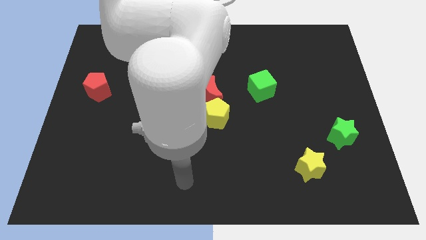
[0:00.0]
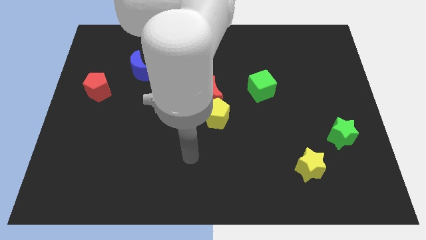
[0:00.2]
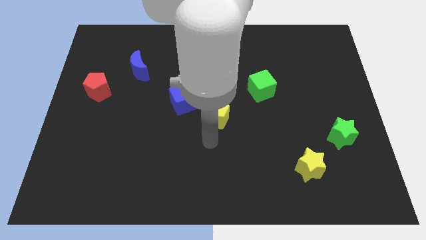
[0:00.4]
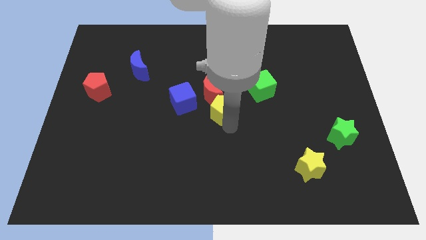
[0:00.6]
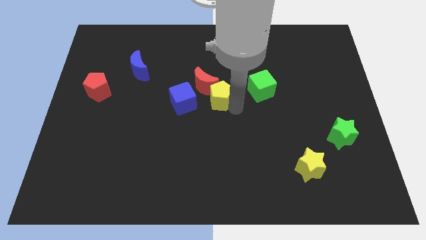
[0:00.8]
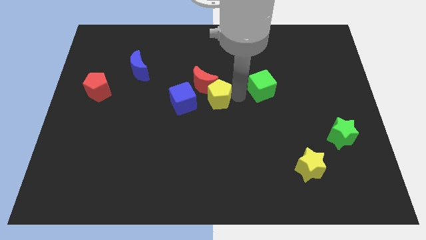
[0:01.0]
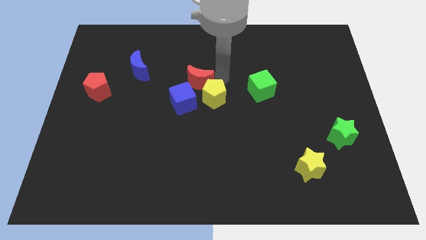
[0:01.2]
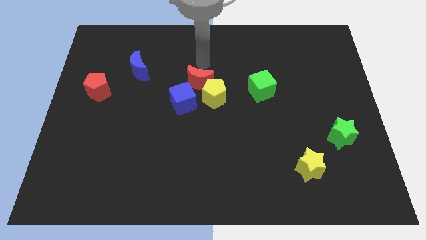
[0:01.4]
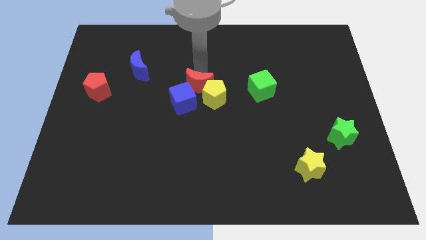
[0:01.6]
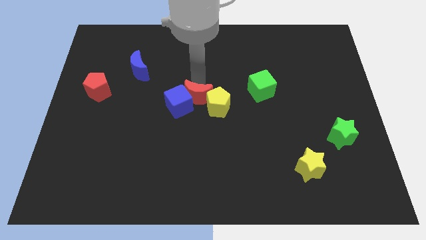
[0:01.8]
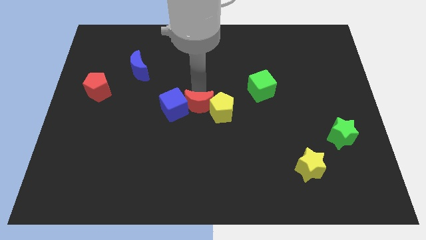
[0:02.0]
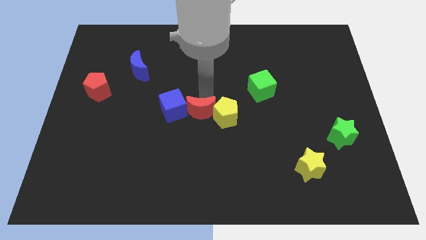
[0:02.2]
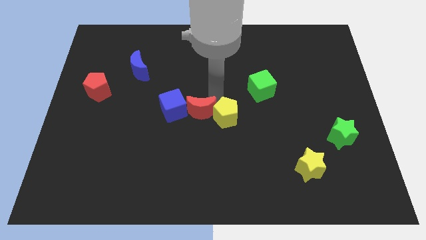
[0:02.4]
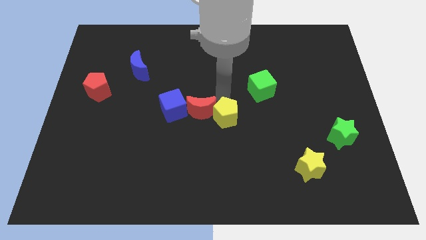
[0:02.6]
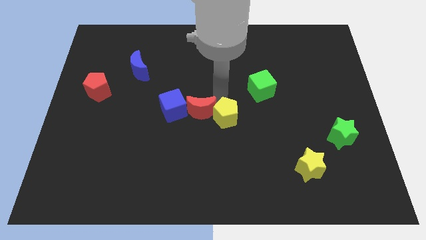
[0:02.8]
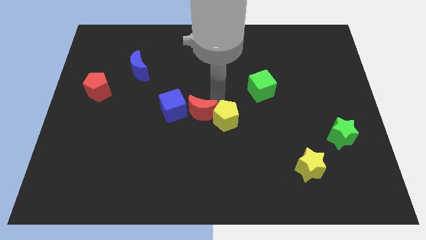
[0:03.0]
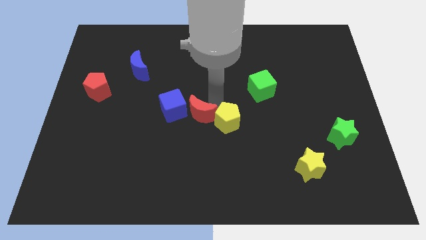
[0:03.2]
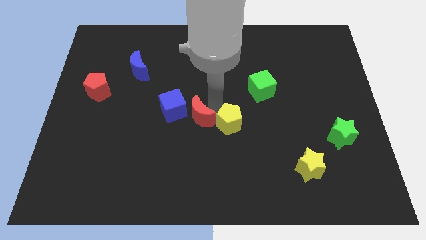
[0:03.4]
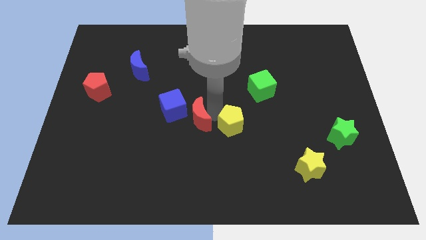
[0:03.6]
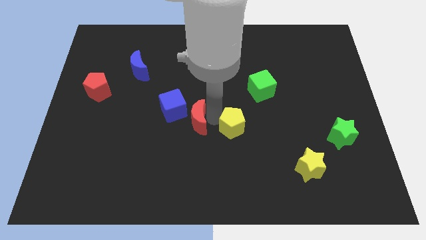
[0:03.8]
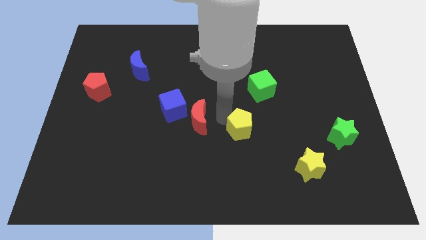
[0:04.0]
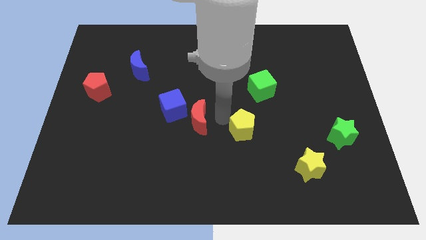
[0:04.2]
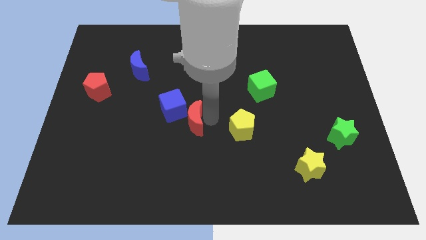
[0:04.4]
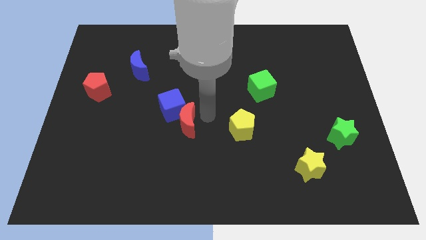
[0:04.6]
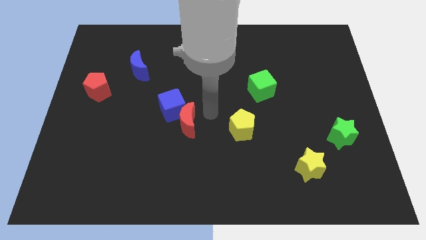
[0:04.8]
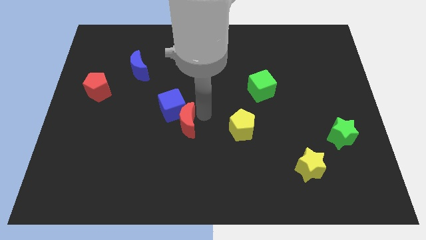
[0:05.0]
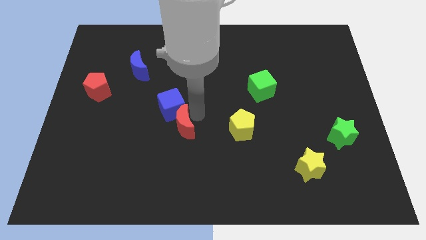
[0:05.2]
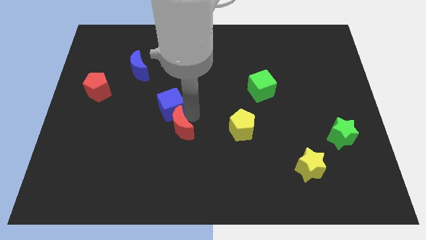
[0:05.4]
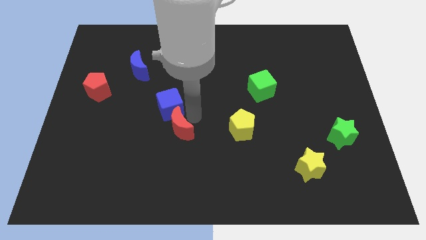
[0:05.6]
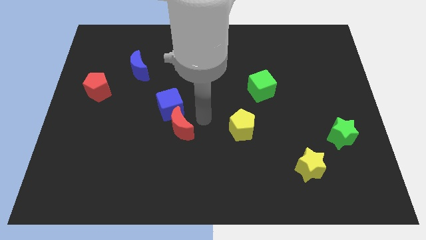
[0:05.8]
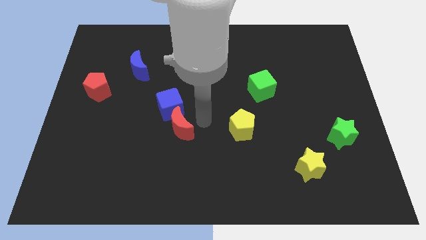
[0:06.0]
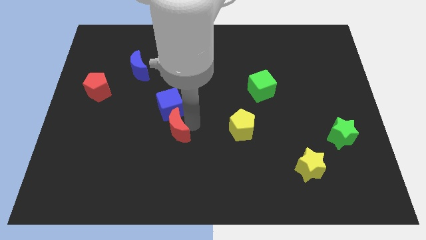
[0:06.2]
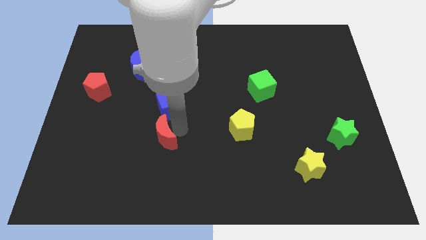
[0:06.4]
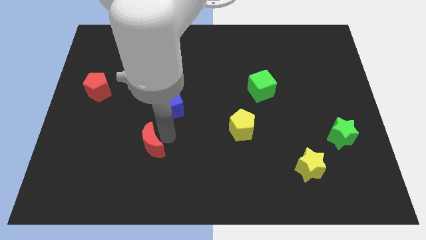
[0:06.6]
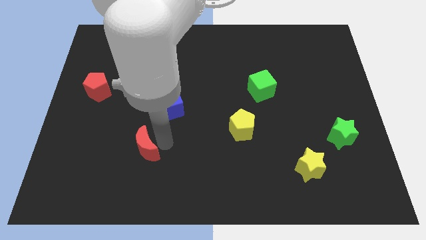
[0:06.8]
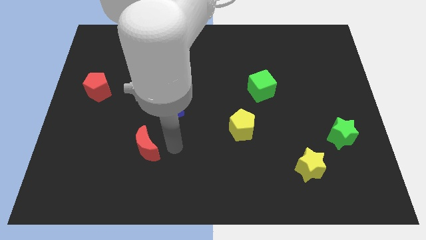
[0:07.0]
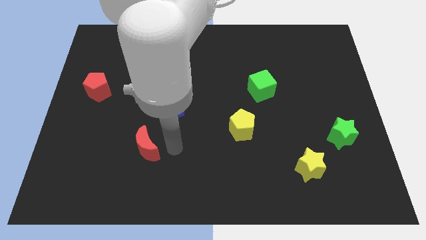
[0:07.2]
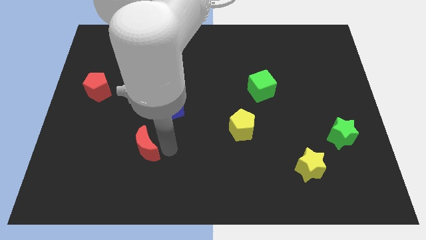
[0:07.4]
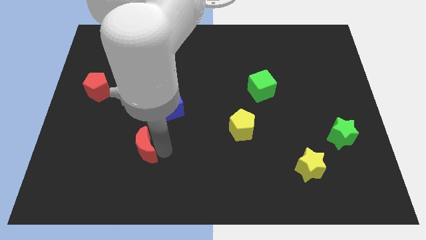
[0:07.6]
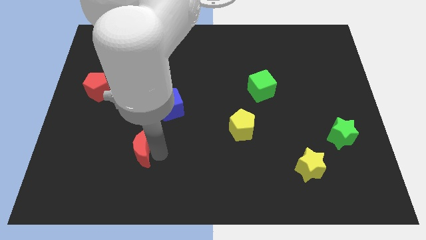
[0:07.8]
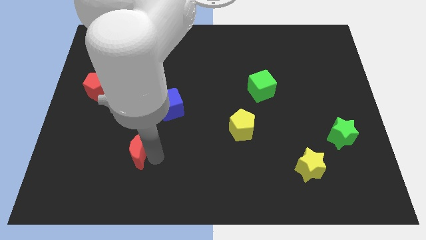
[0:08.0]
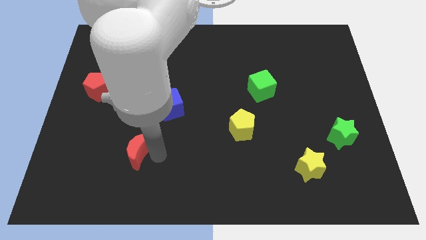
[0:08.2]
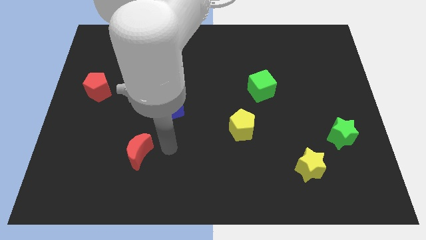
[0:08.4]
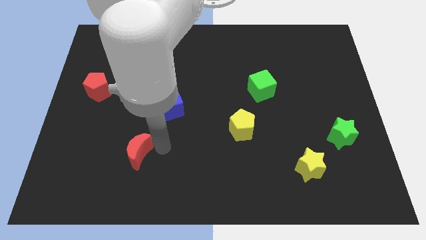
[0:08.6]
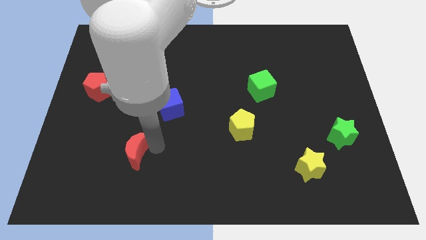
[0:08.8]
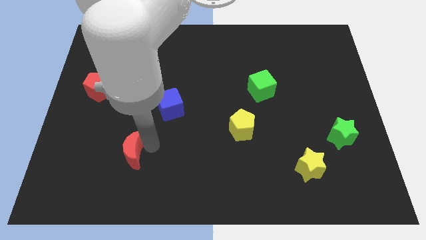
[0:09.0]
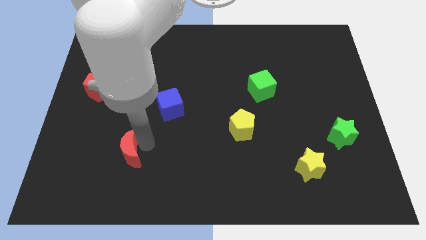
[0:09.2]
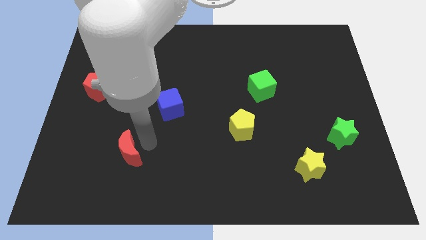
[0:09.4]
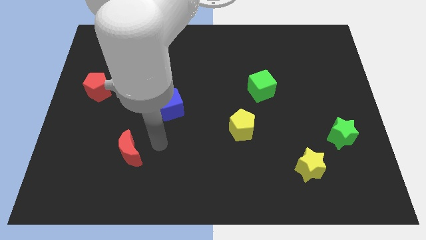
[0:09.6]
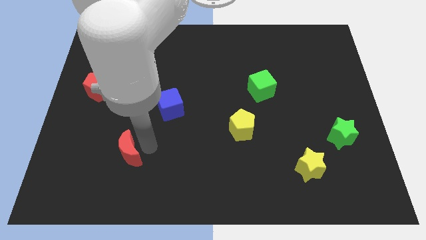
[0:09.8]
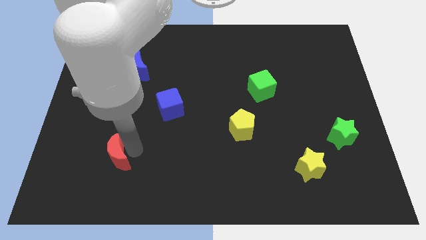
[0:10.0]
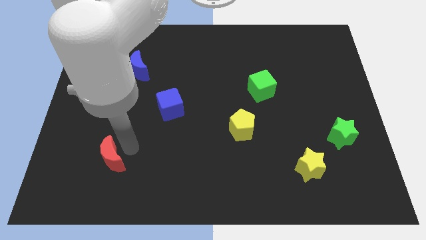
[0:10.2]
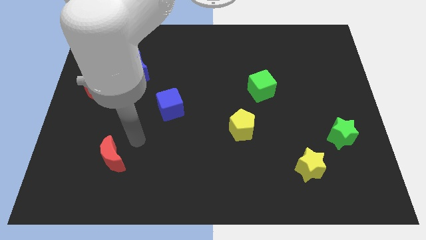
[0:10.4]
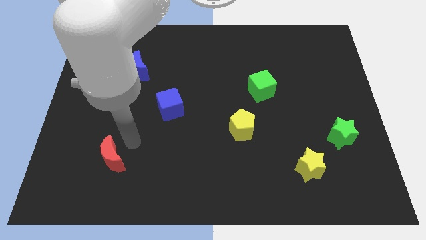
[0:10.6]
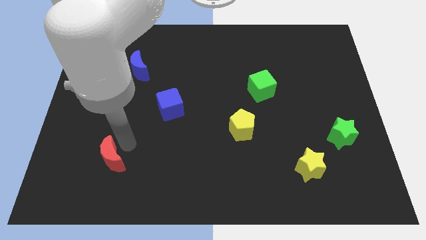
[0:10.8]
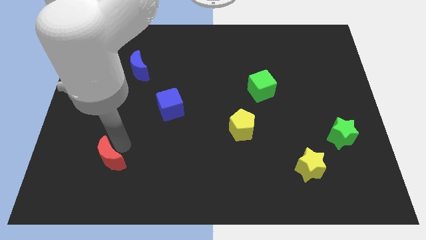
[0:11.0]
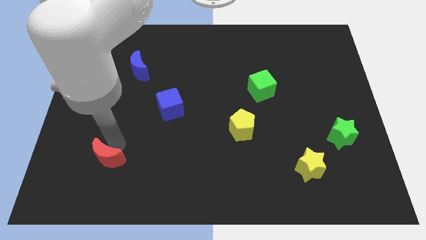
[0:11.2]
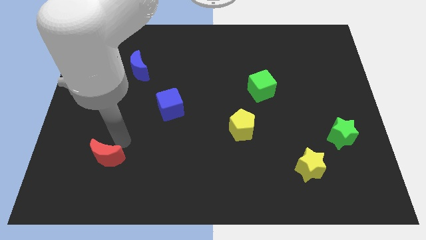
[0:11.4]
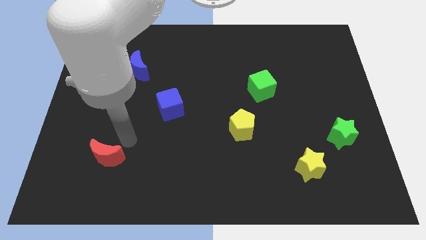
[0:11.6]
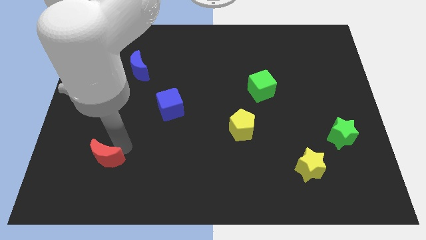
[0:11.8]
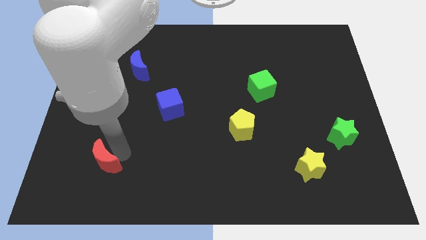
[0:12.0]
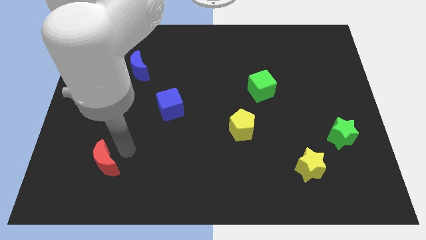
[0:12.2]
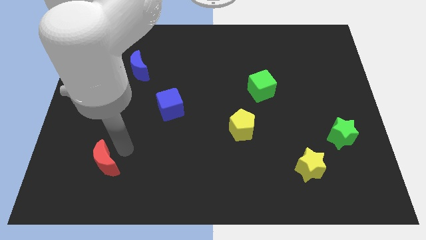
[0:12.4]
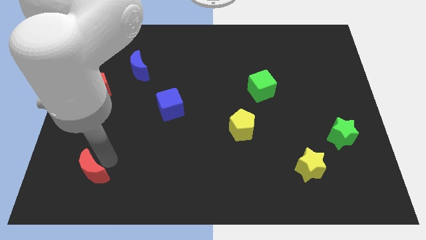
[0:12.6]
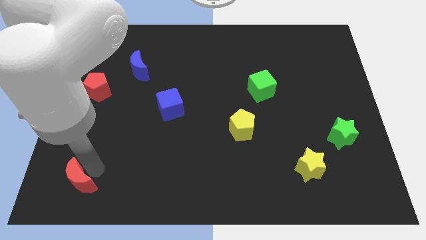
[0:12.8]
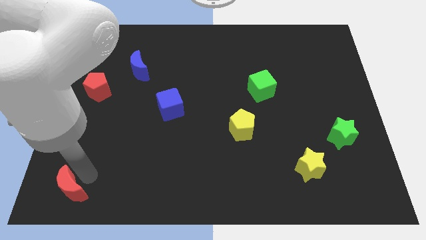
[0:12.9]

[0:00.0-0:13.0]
slide the red moon to the lower left corner

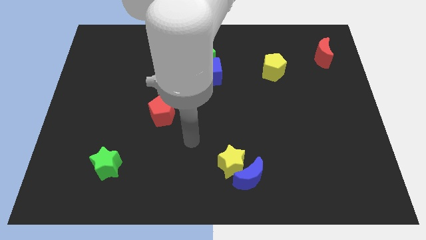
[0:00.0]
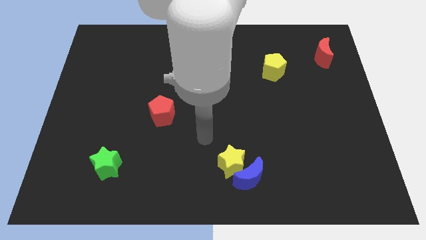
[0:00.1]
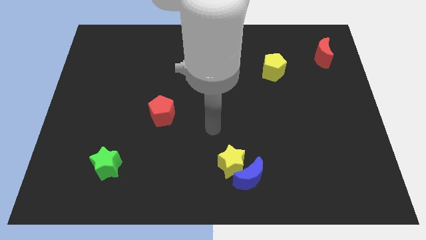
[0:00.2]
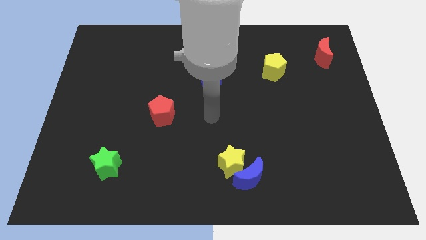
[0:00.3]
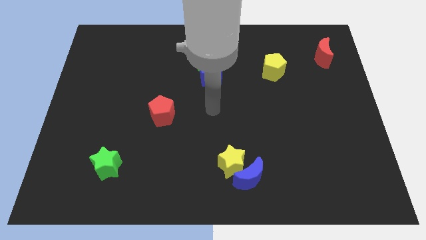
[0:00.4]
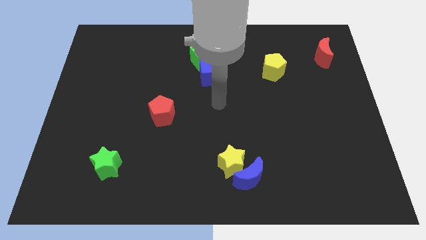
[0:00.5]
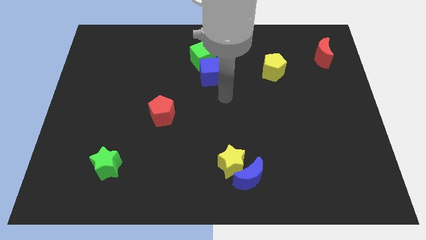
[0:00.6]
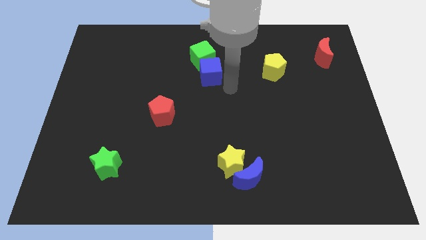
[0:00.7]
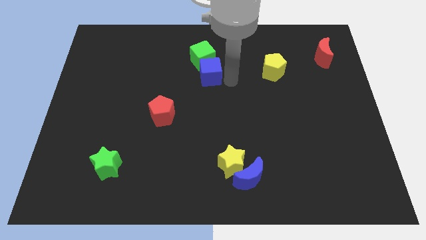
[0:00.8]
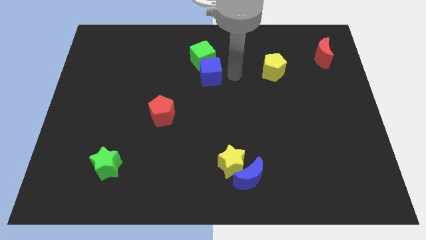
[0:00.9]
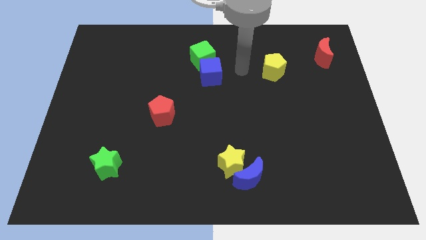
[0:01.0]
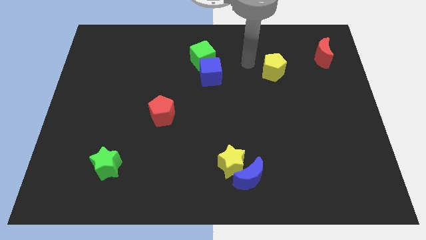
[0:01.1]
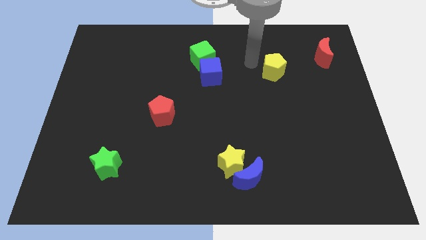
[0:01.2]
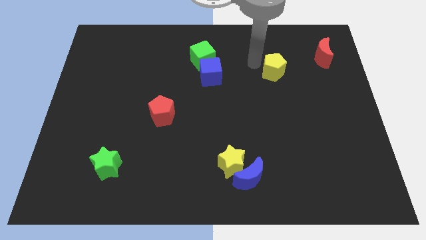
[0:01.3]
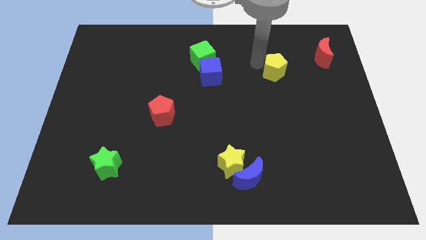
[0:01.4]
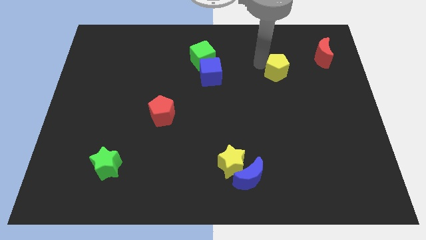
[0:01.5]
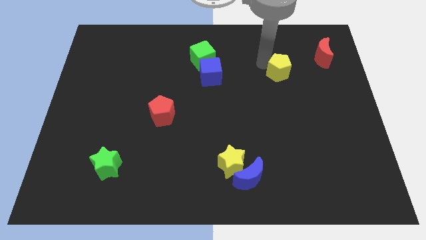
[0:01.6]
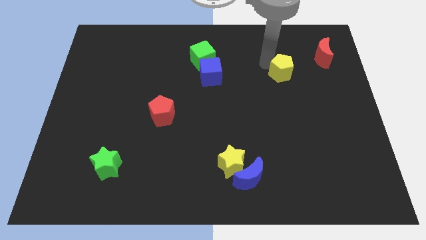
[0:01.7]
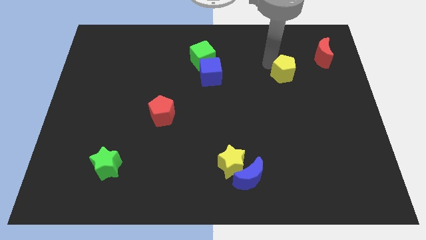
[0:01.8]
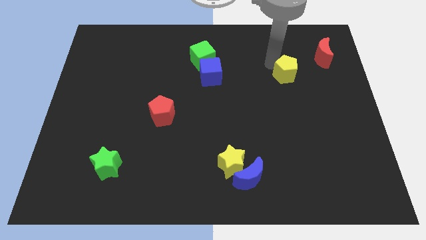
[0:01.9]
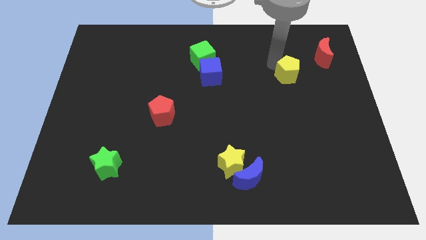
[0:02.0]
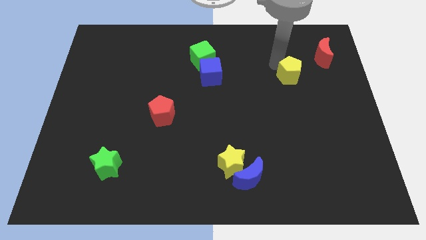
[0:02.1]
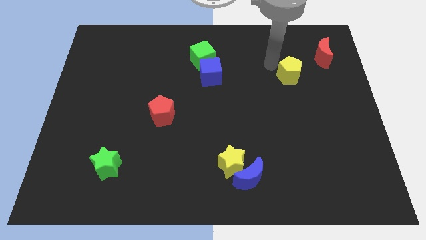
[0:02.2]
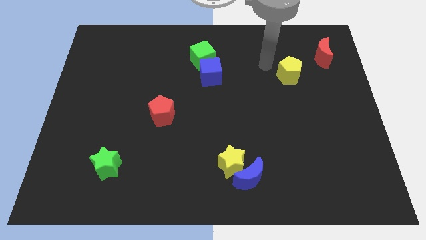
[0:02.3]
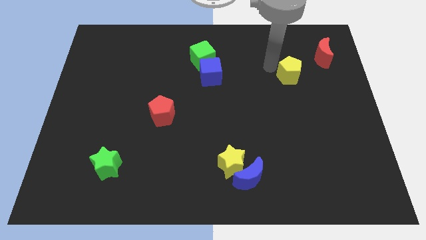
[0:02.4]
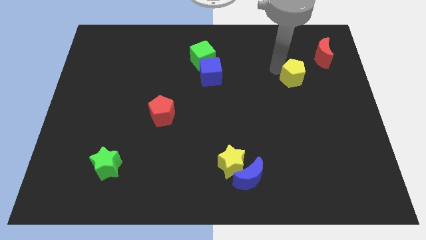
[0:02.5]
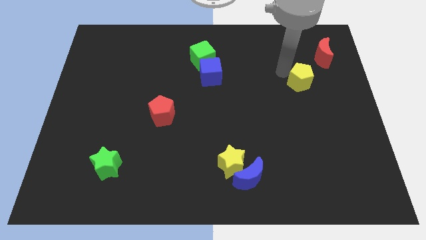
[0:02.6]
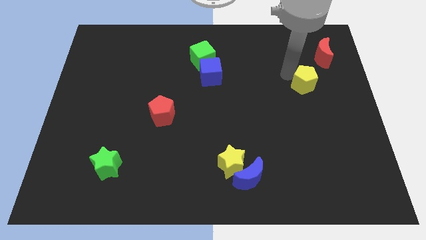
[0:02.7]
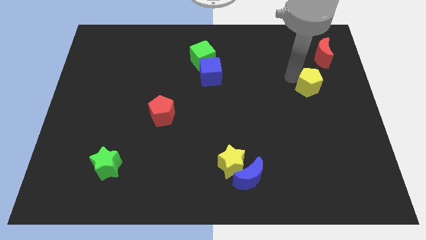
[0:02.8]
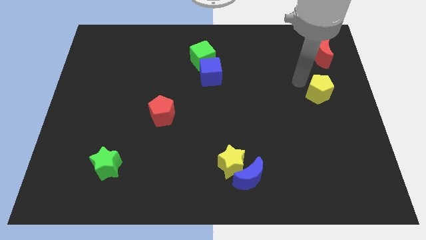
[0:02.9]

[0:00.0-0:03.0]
push the yellow pentagon to the center right
